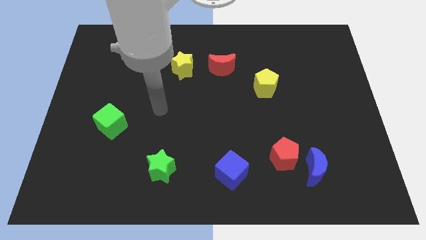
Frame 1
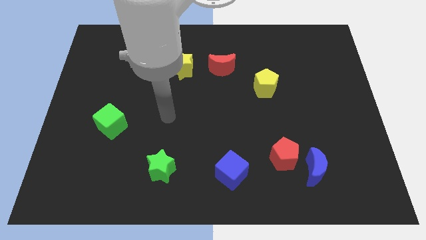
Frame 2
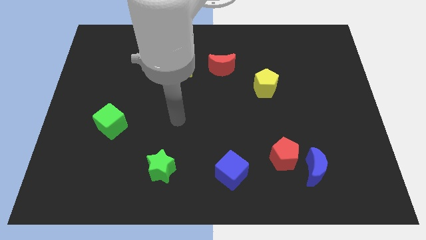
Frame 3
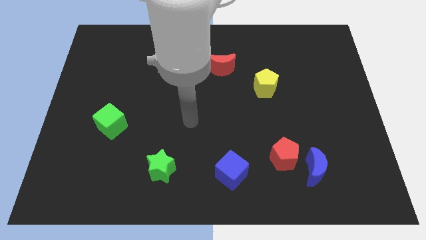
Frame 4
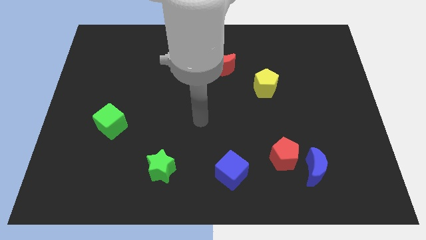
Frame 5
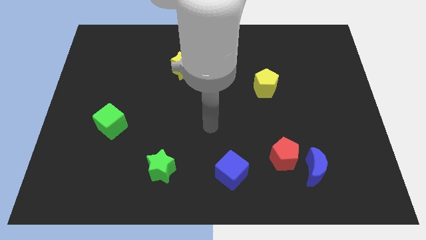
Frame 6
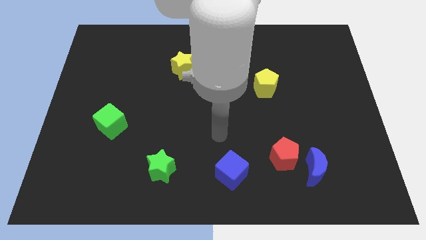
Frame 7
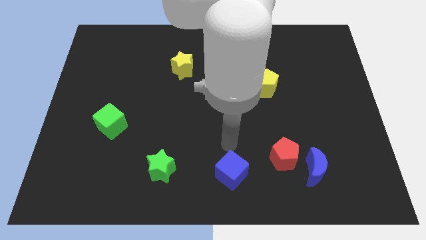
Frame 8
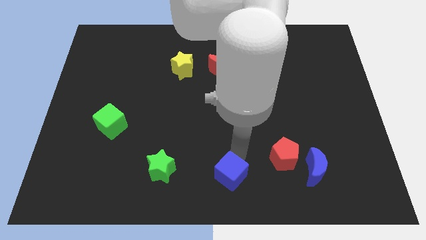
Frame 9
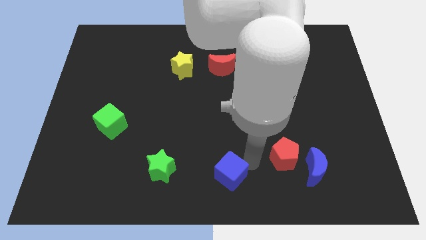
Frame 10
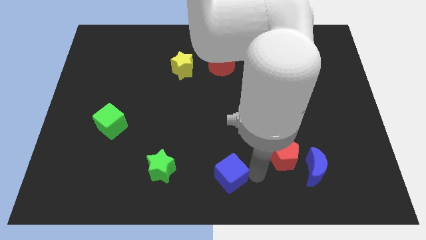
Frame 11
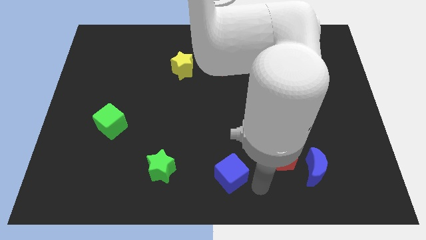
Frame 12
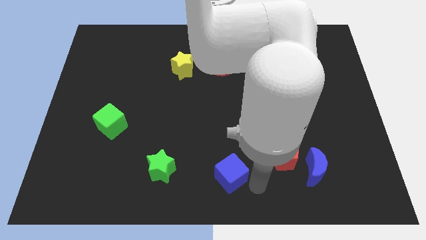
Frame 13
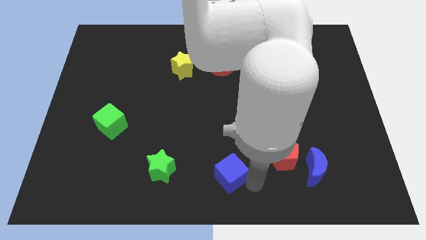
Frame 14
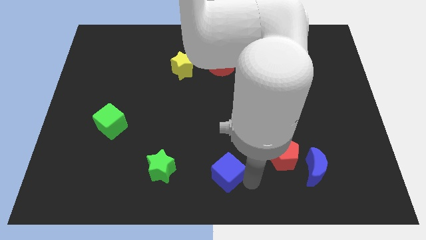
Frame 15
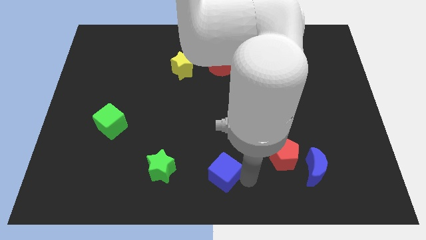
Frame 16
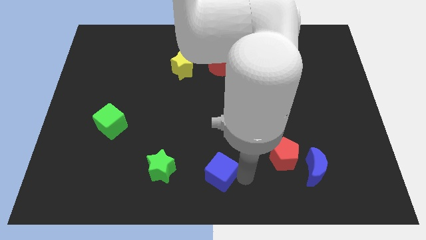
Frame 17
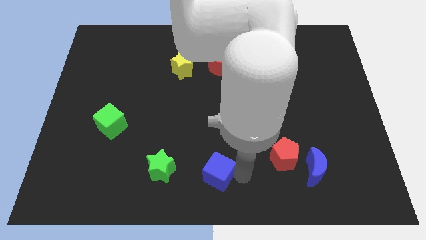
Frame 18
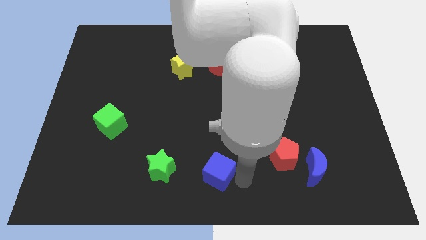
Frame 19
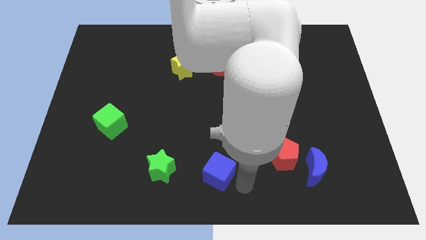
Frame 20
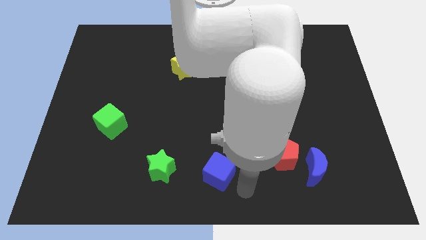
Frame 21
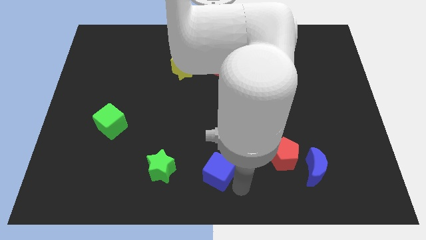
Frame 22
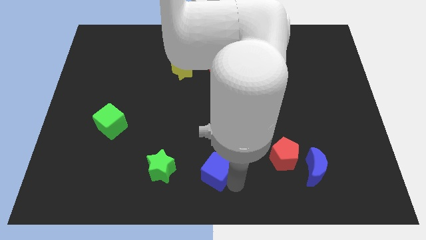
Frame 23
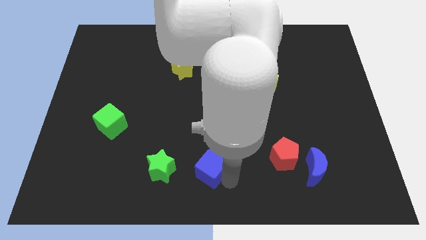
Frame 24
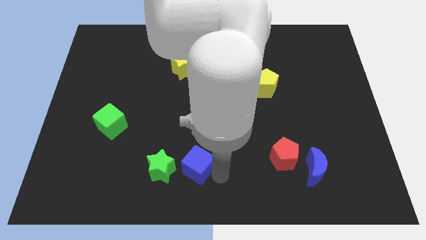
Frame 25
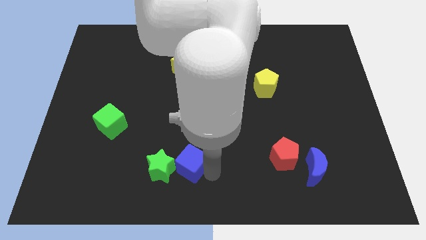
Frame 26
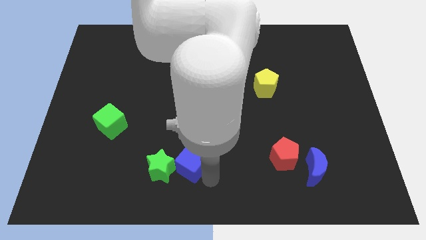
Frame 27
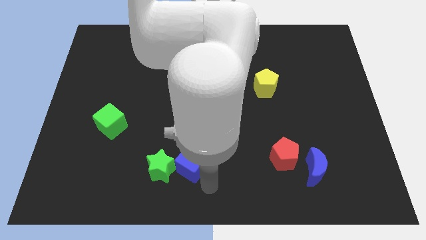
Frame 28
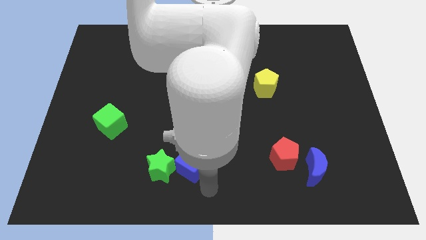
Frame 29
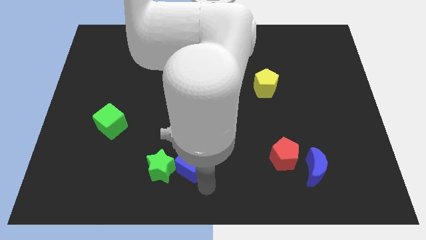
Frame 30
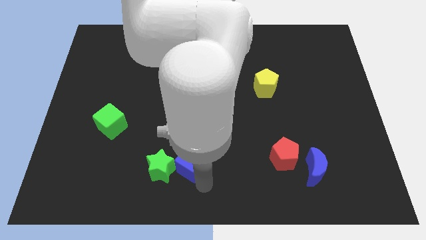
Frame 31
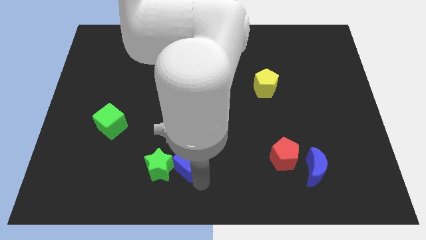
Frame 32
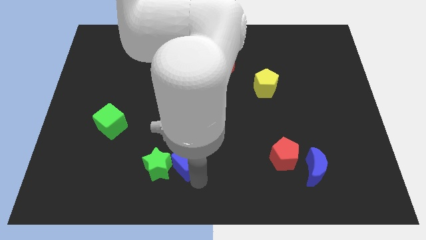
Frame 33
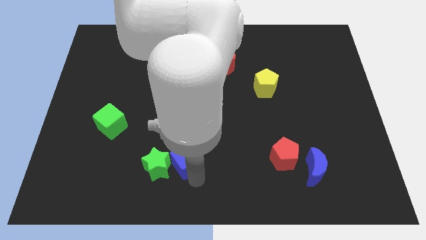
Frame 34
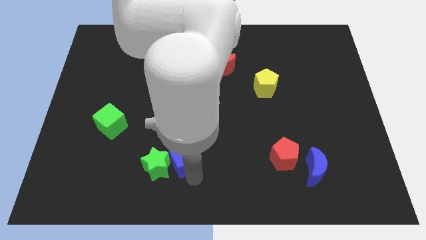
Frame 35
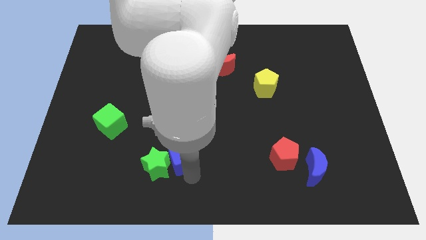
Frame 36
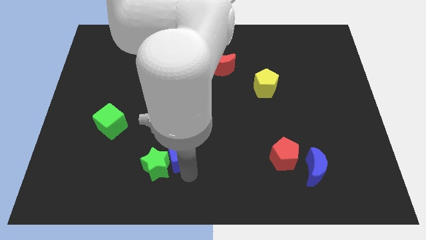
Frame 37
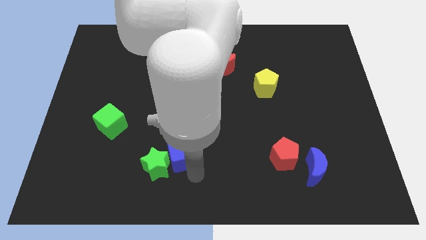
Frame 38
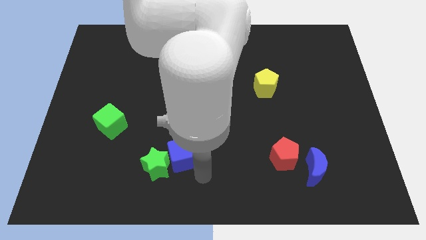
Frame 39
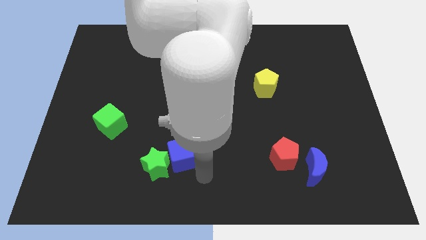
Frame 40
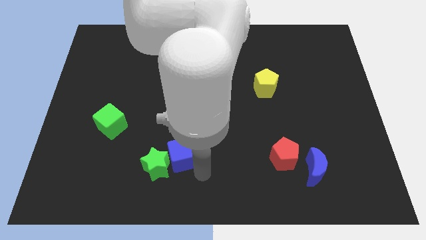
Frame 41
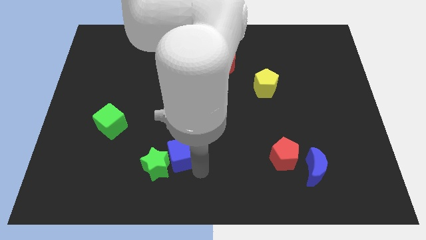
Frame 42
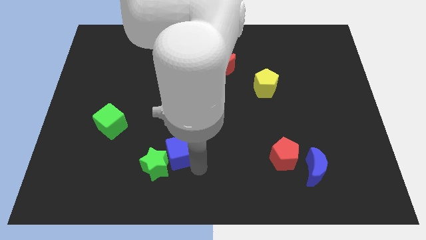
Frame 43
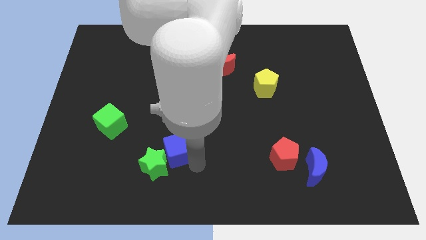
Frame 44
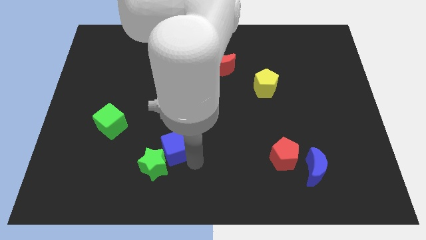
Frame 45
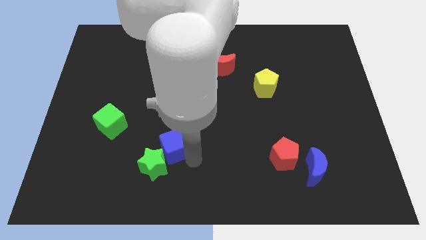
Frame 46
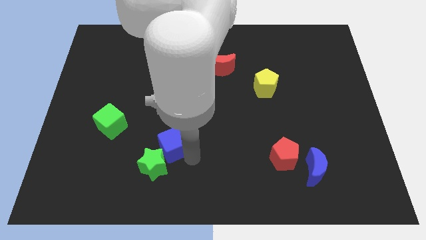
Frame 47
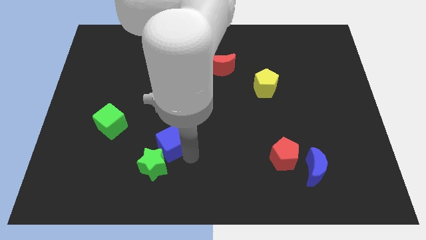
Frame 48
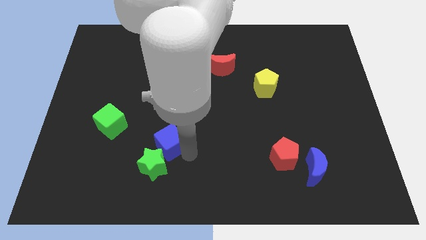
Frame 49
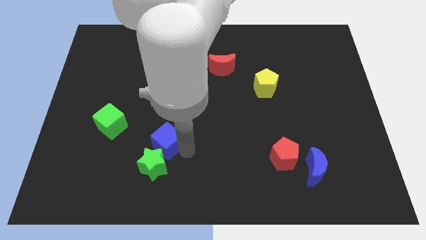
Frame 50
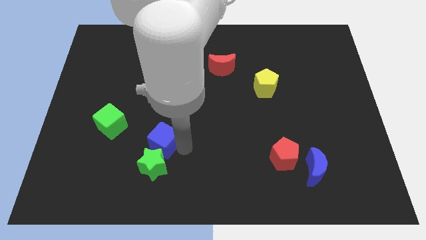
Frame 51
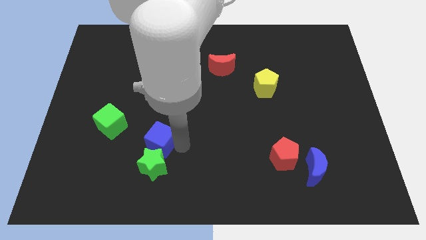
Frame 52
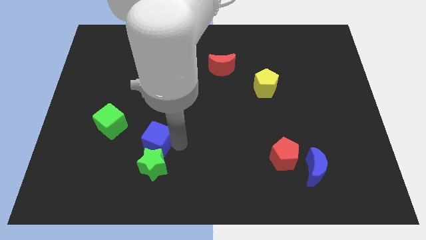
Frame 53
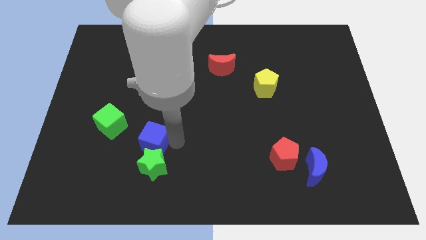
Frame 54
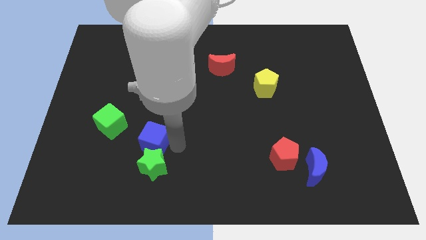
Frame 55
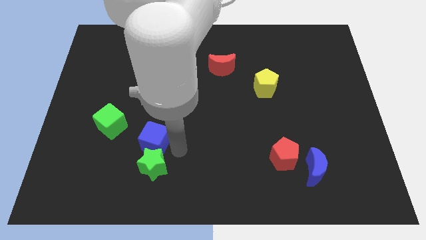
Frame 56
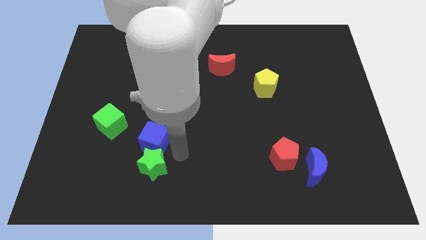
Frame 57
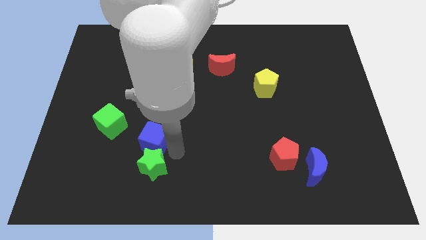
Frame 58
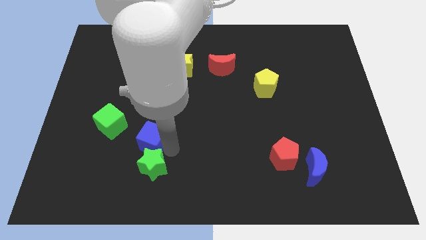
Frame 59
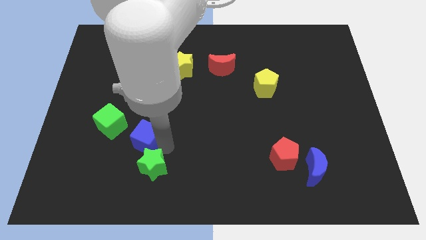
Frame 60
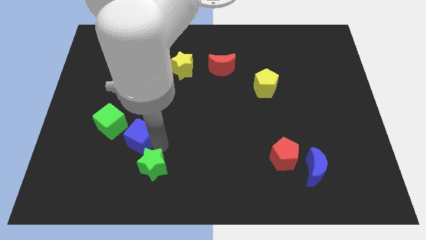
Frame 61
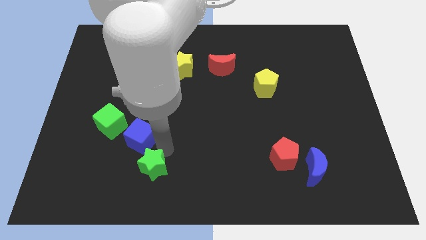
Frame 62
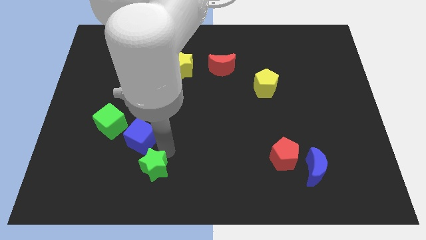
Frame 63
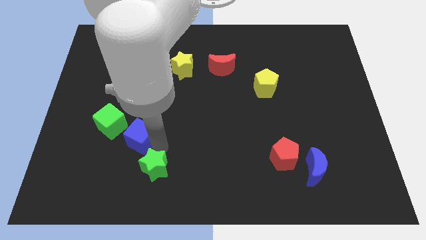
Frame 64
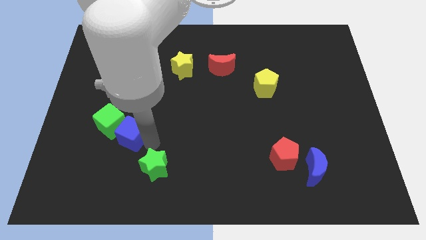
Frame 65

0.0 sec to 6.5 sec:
push the blue cube to the green cube

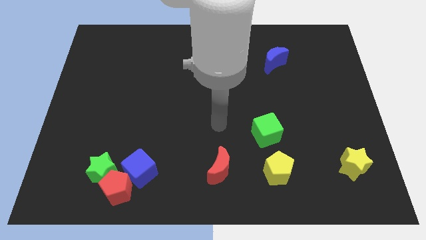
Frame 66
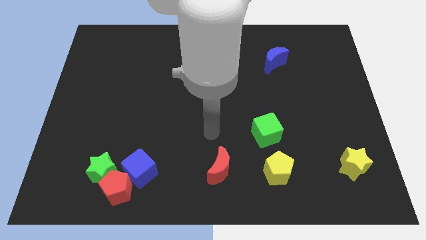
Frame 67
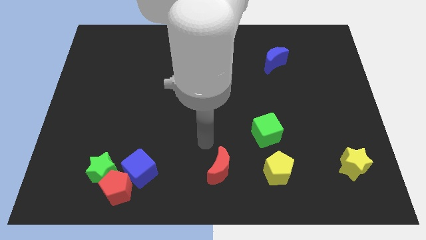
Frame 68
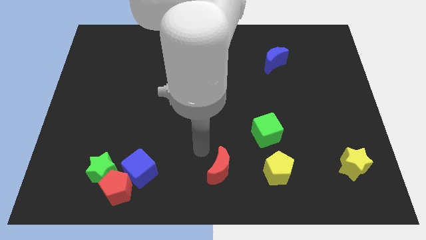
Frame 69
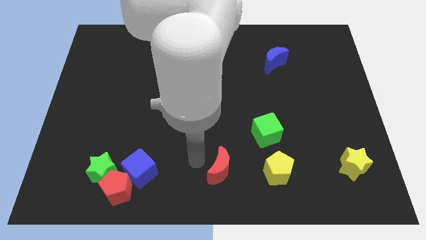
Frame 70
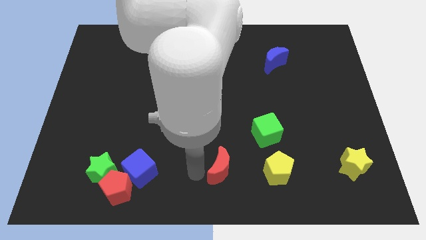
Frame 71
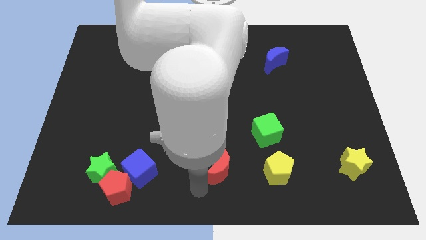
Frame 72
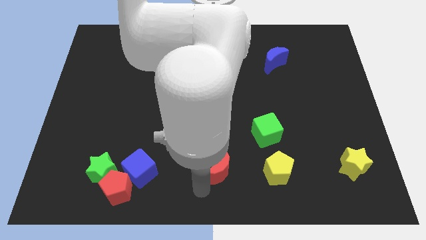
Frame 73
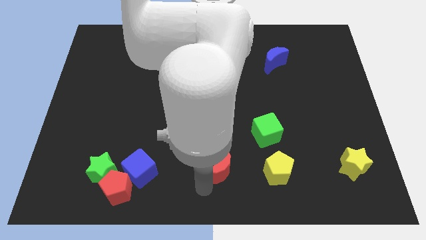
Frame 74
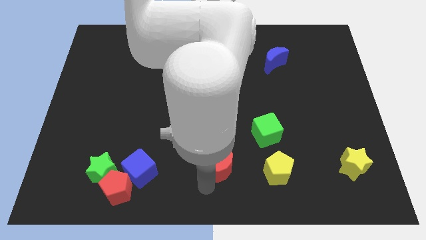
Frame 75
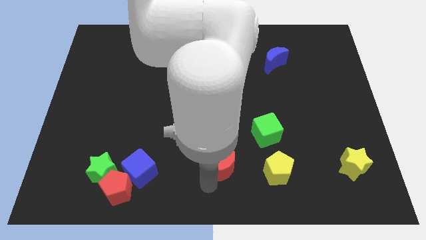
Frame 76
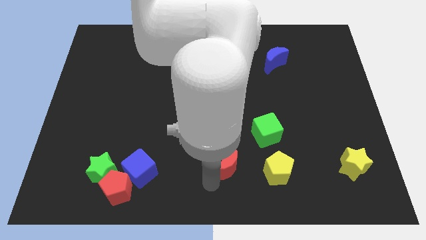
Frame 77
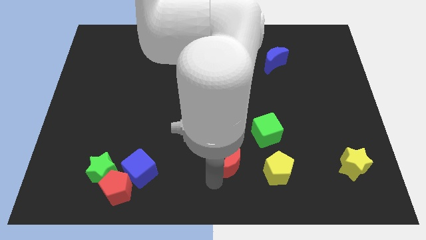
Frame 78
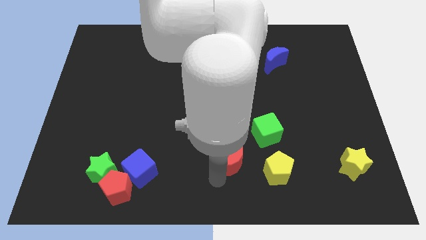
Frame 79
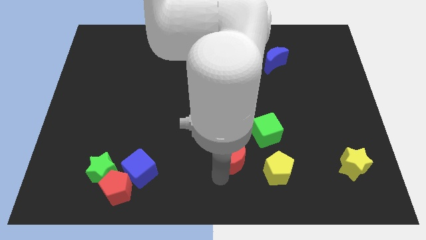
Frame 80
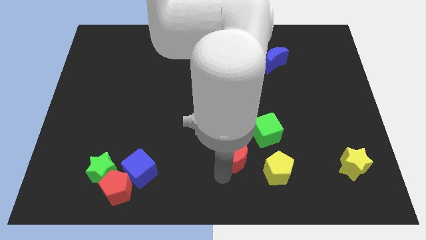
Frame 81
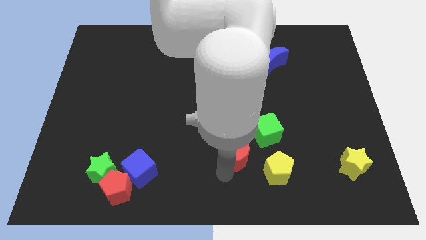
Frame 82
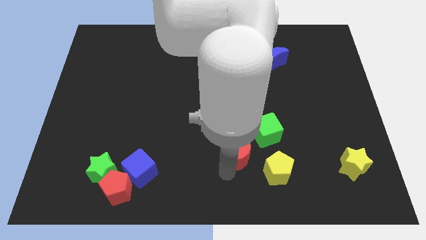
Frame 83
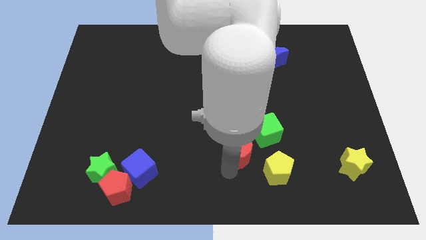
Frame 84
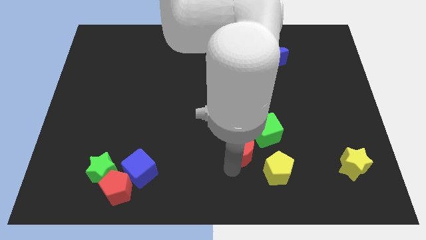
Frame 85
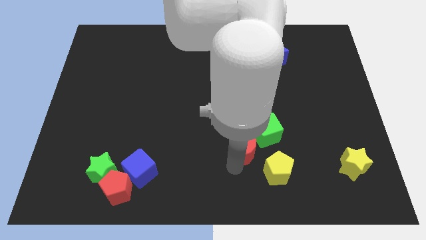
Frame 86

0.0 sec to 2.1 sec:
slide the red moon next to the green cube
